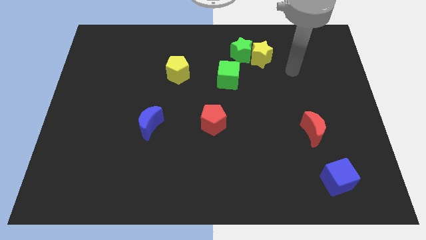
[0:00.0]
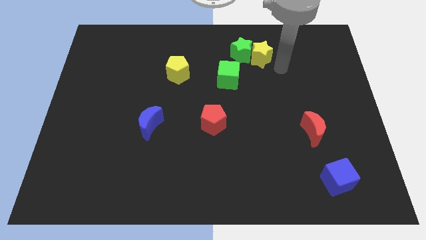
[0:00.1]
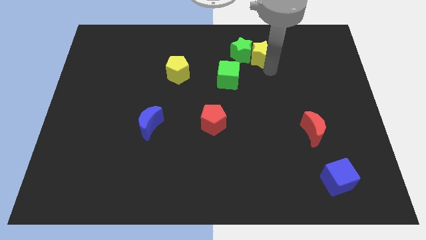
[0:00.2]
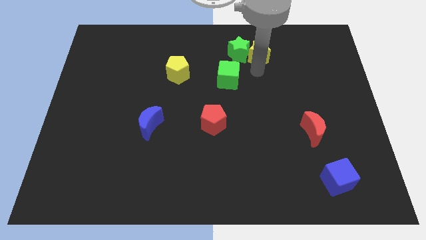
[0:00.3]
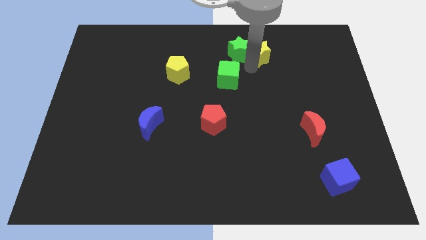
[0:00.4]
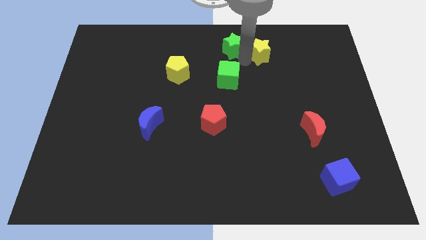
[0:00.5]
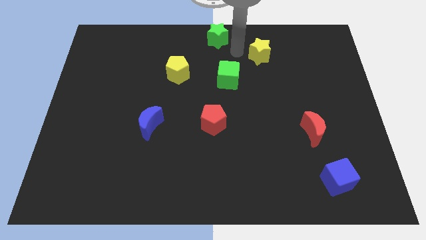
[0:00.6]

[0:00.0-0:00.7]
pull the yellow star apart from the green star

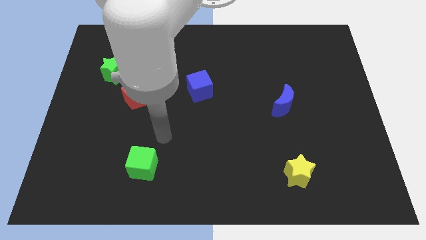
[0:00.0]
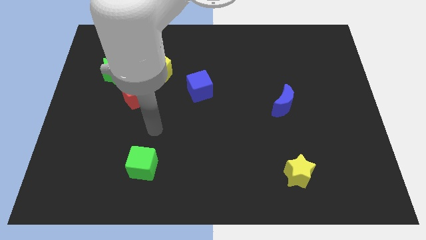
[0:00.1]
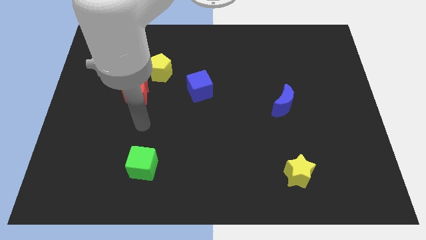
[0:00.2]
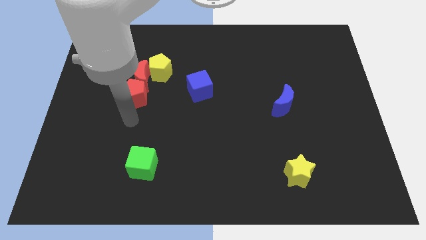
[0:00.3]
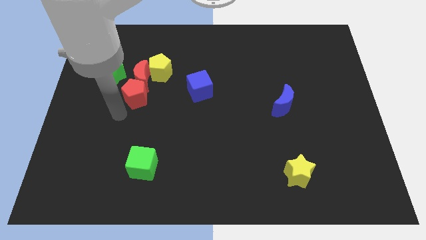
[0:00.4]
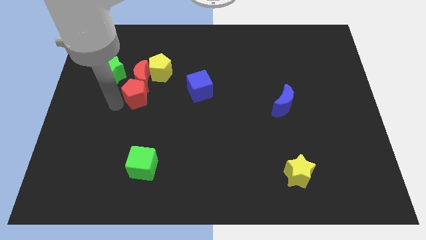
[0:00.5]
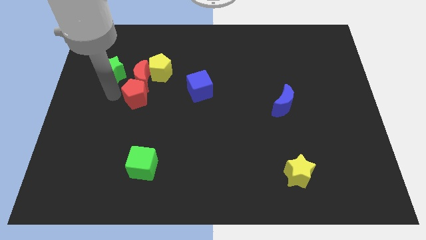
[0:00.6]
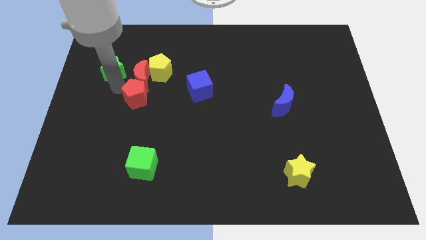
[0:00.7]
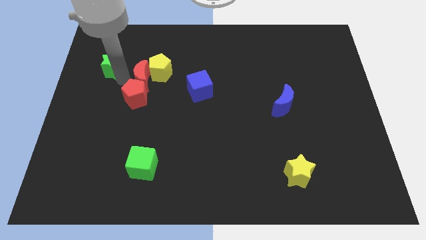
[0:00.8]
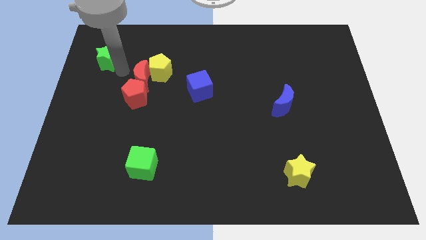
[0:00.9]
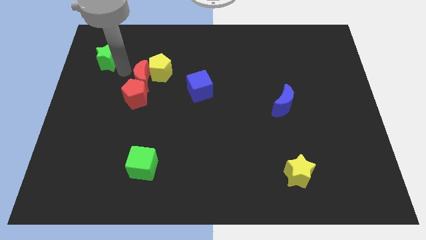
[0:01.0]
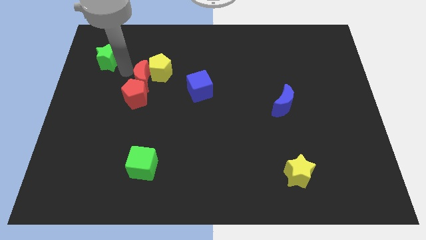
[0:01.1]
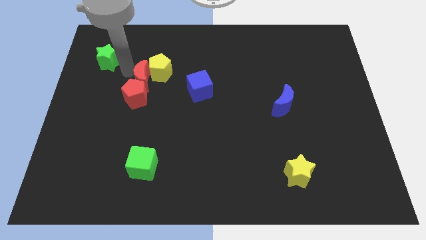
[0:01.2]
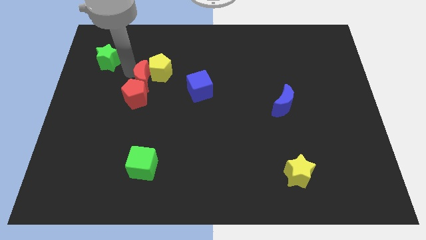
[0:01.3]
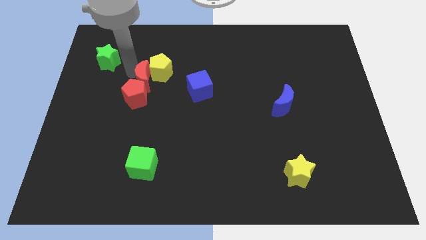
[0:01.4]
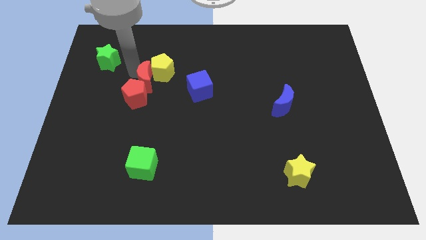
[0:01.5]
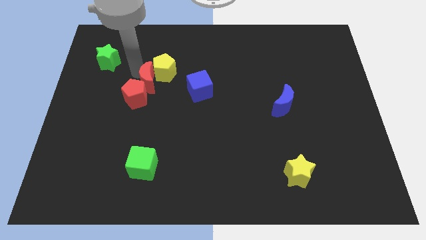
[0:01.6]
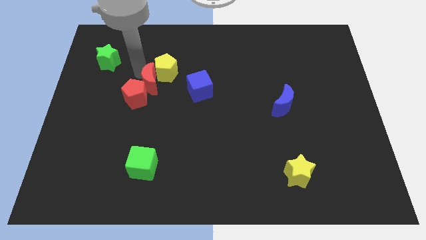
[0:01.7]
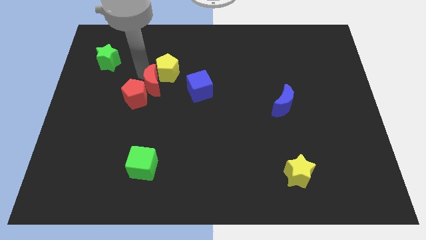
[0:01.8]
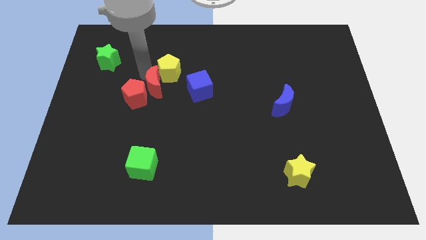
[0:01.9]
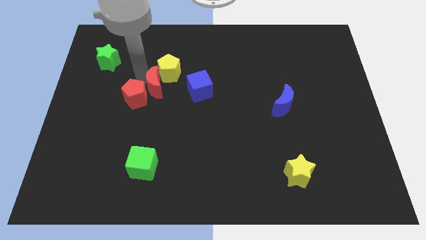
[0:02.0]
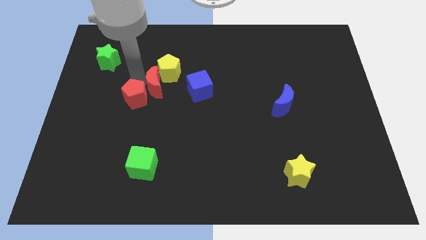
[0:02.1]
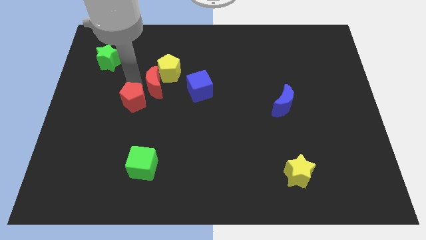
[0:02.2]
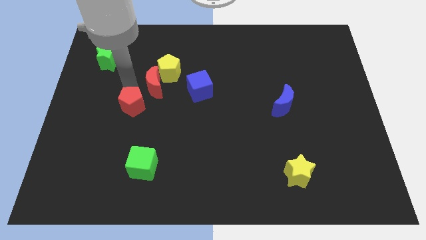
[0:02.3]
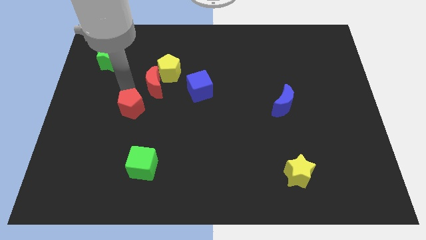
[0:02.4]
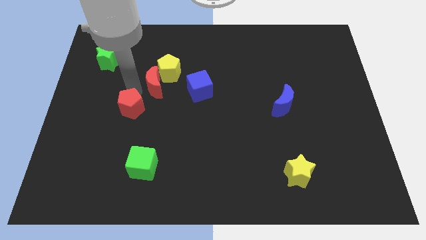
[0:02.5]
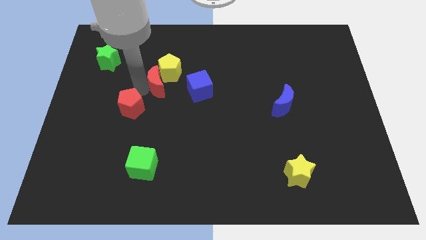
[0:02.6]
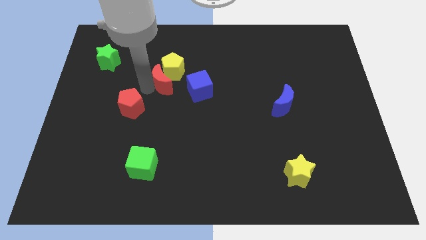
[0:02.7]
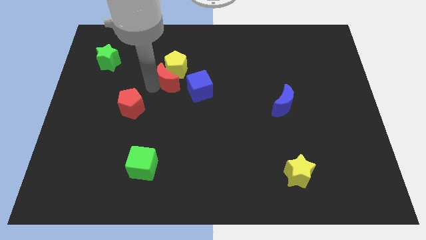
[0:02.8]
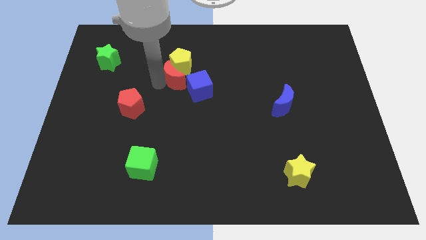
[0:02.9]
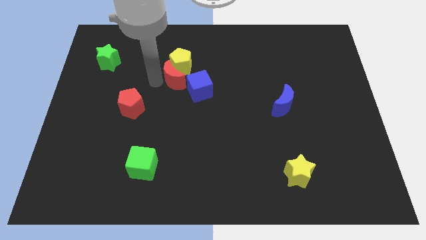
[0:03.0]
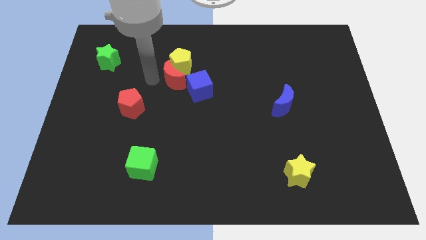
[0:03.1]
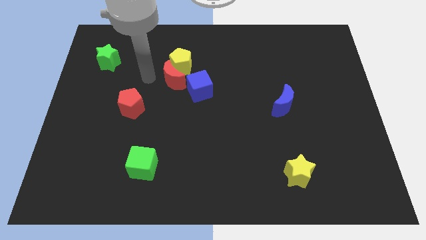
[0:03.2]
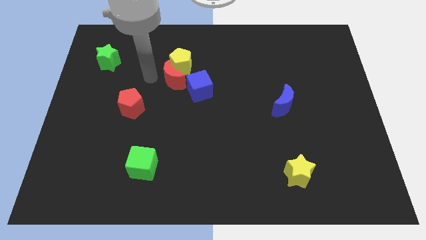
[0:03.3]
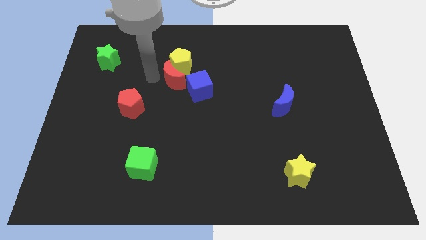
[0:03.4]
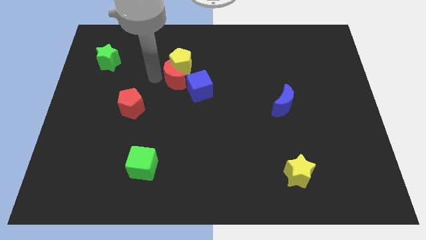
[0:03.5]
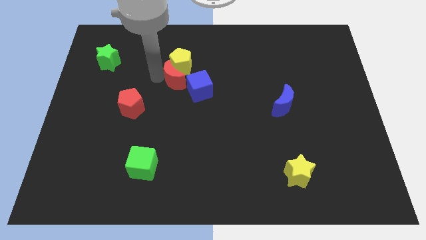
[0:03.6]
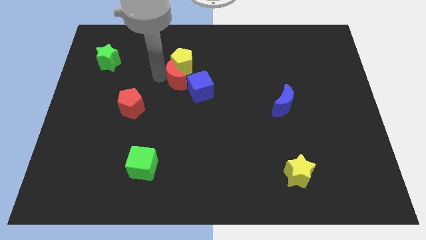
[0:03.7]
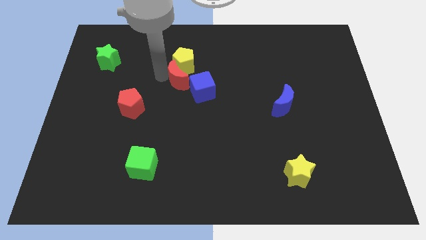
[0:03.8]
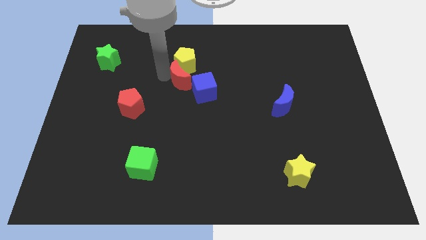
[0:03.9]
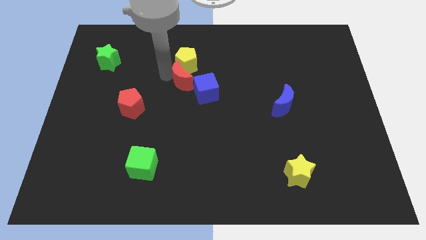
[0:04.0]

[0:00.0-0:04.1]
pull the red moon apart from the yellow pentagon, red pentagon, and green star

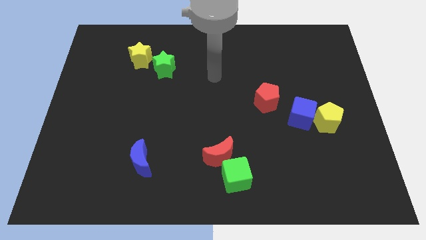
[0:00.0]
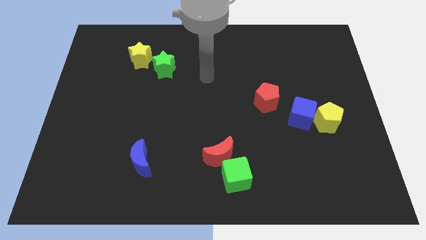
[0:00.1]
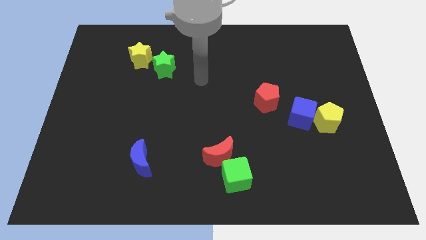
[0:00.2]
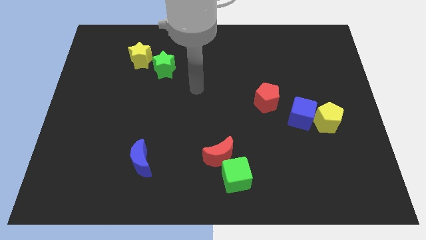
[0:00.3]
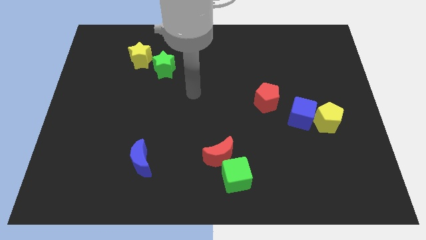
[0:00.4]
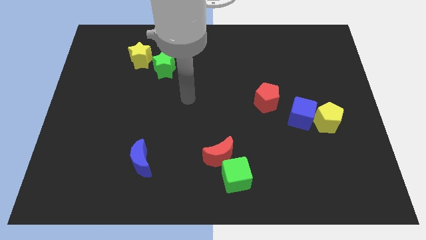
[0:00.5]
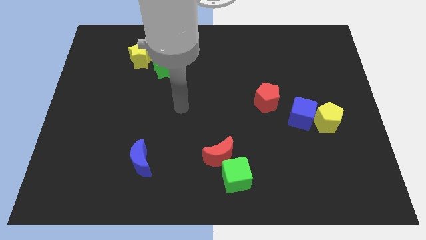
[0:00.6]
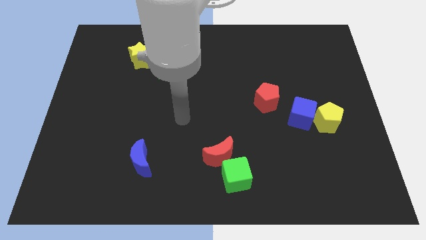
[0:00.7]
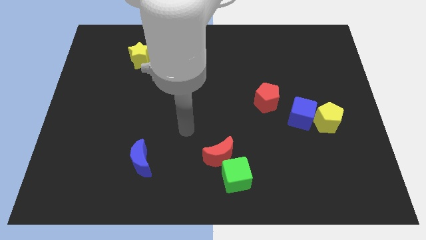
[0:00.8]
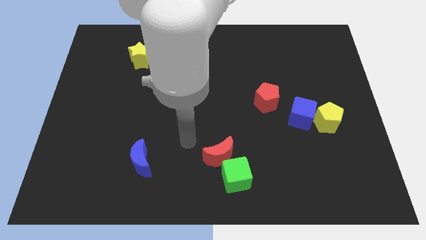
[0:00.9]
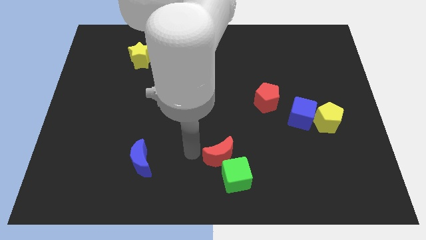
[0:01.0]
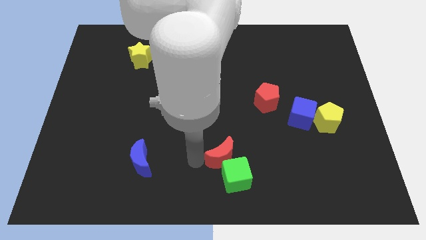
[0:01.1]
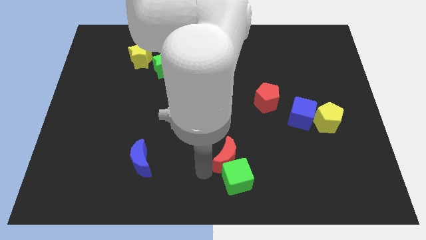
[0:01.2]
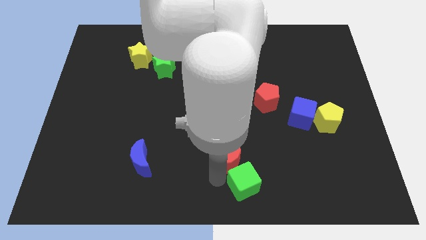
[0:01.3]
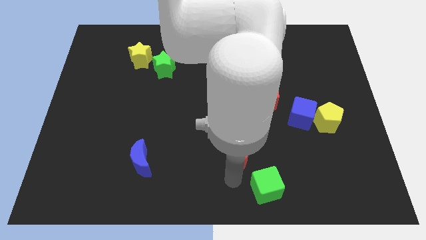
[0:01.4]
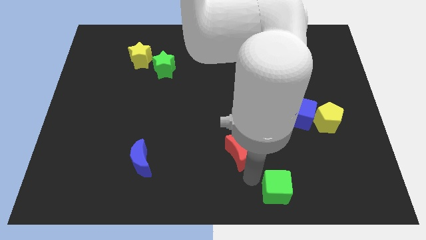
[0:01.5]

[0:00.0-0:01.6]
move the red moon away from the green cube

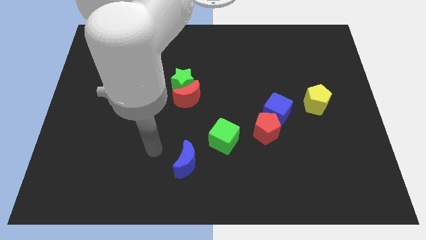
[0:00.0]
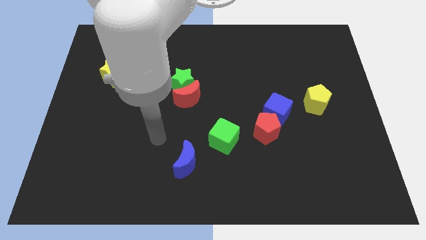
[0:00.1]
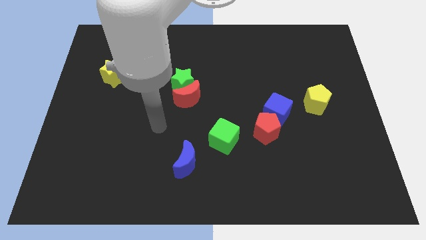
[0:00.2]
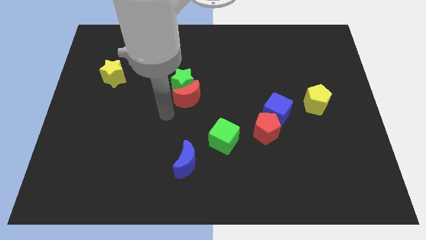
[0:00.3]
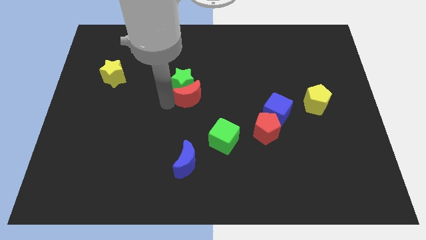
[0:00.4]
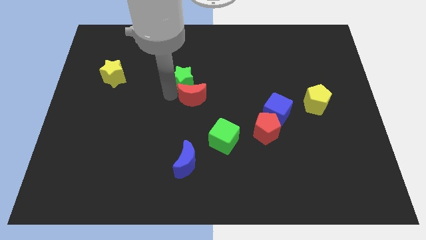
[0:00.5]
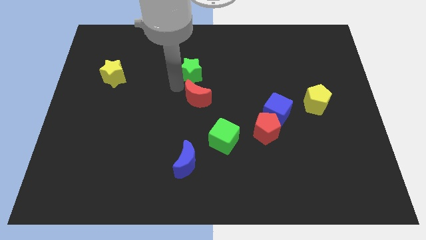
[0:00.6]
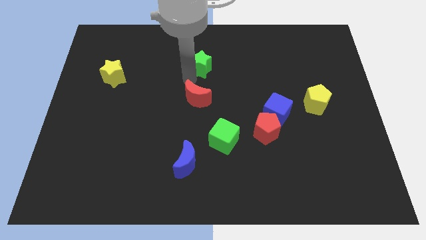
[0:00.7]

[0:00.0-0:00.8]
separate the red moon from the green star

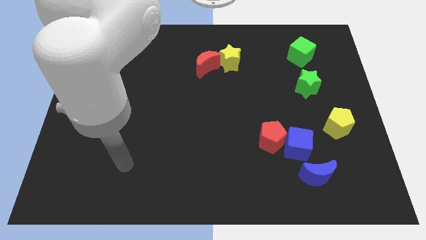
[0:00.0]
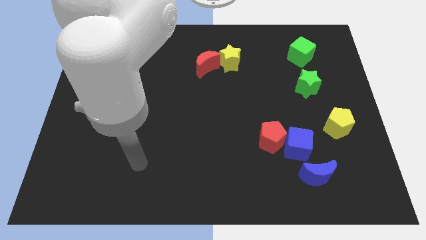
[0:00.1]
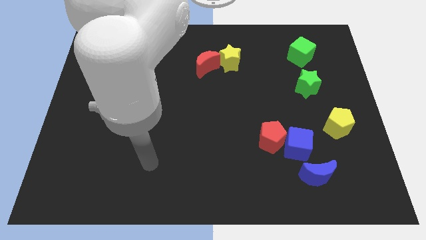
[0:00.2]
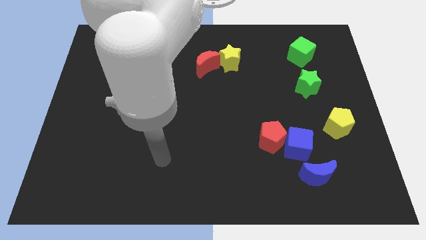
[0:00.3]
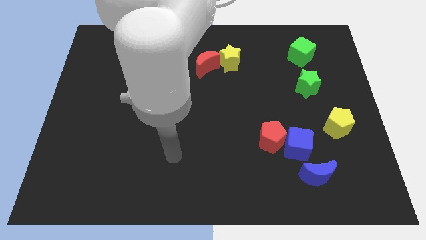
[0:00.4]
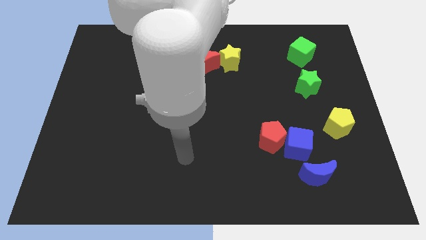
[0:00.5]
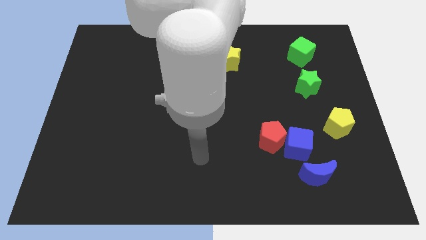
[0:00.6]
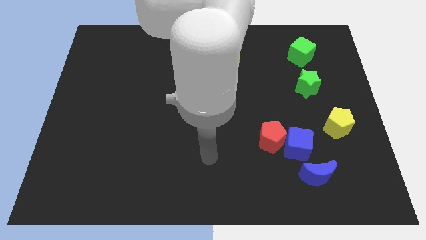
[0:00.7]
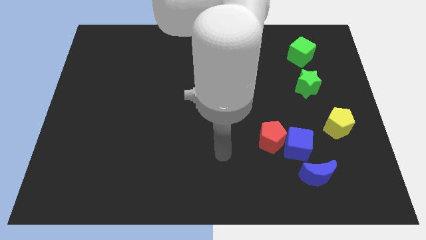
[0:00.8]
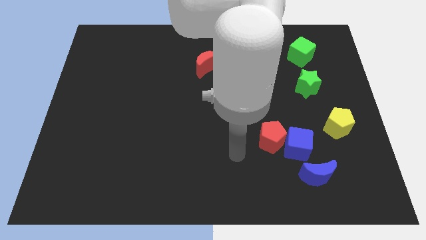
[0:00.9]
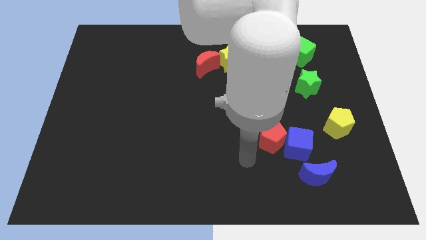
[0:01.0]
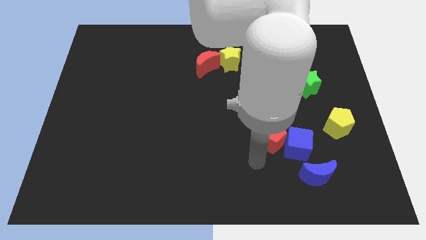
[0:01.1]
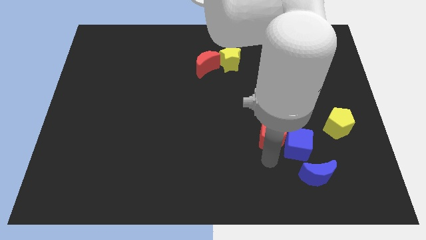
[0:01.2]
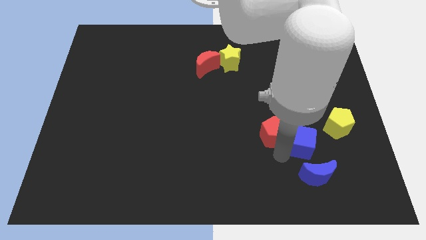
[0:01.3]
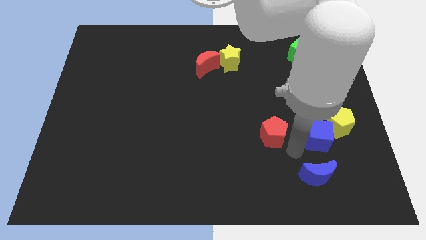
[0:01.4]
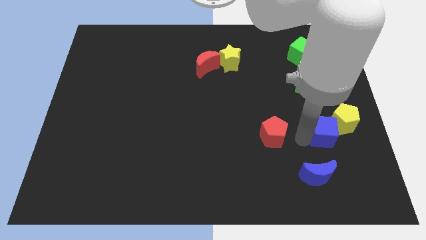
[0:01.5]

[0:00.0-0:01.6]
move the red pentagon away from the blue cube

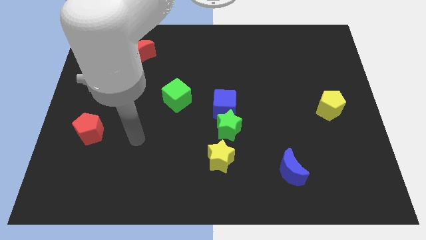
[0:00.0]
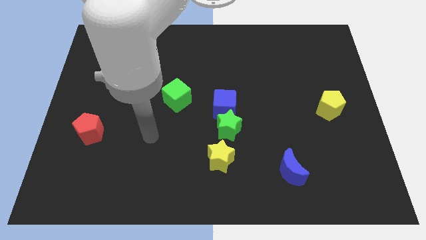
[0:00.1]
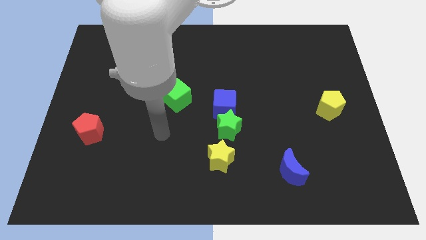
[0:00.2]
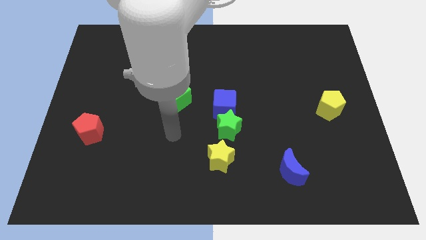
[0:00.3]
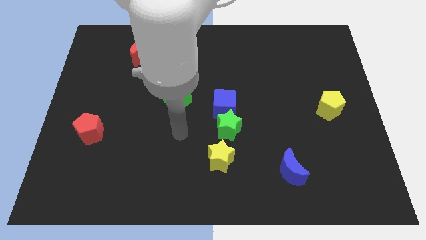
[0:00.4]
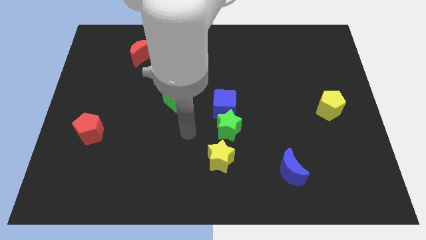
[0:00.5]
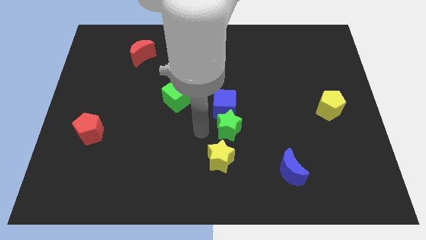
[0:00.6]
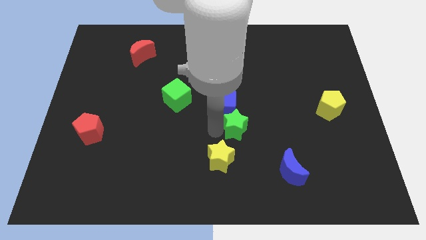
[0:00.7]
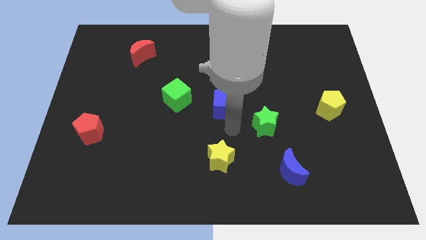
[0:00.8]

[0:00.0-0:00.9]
pull the blue cube apart from the green star
